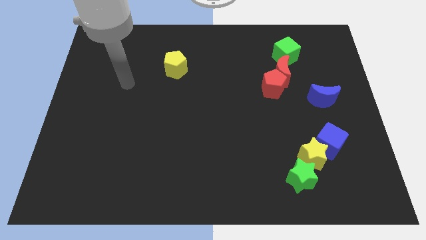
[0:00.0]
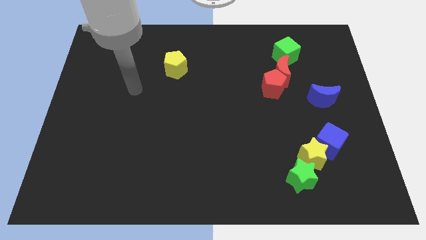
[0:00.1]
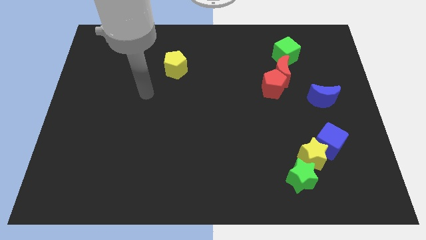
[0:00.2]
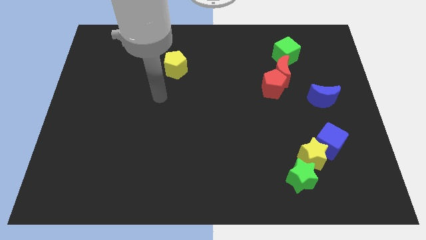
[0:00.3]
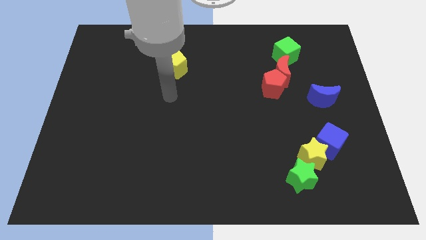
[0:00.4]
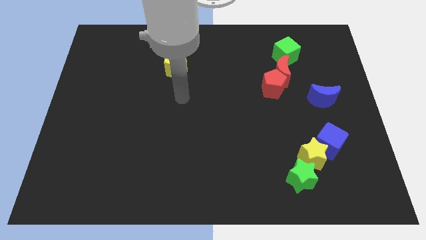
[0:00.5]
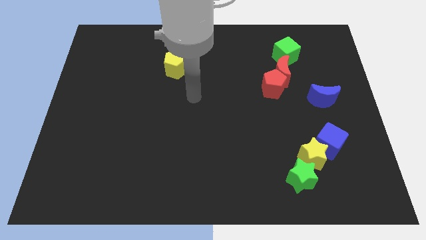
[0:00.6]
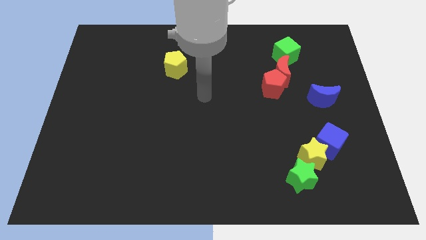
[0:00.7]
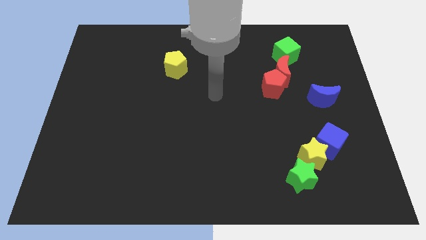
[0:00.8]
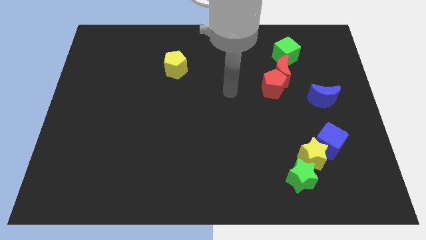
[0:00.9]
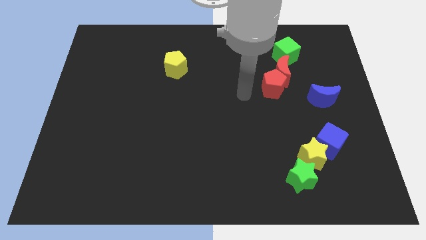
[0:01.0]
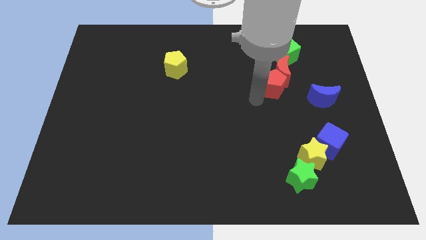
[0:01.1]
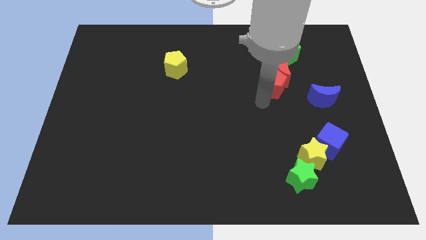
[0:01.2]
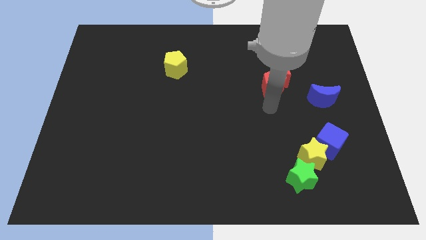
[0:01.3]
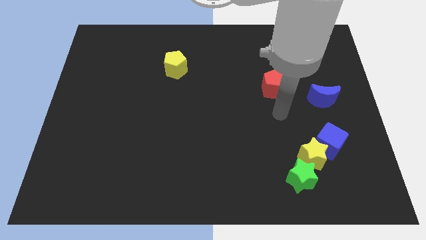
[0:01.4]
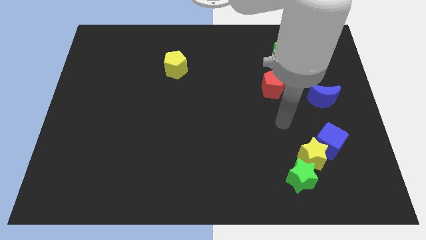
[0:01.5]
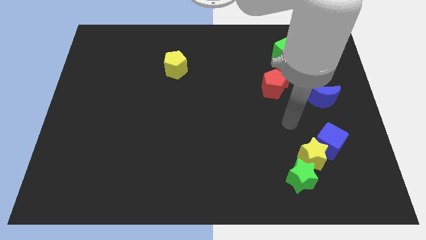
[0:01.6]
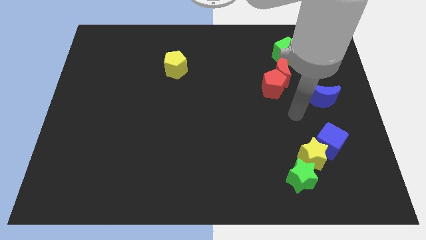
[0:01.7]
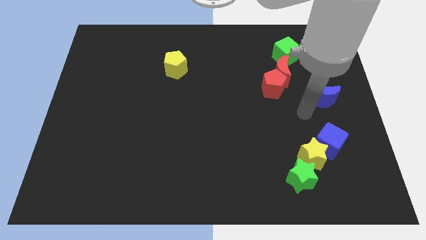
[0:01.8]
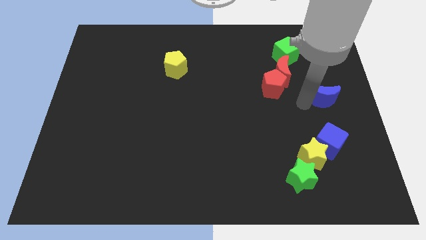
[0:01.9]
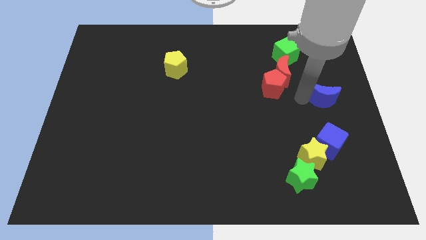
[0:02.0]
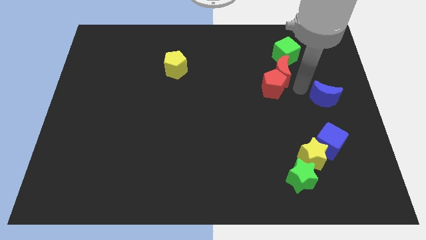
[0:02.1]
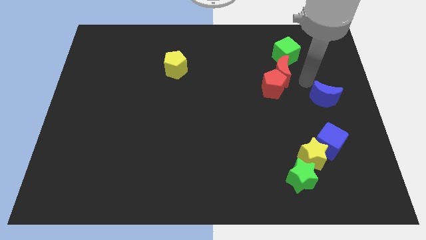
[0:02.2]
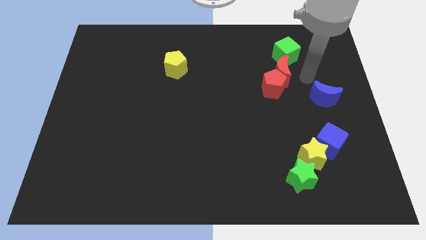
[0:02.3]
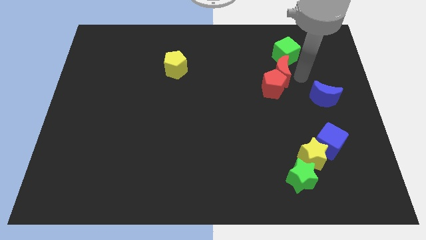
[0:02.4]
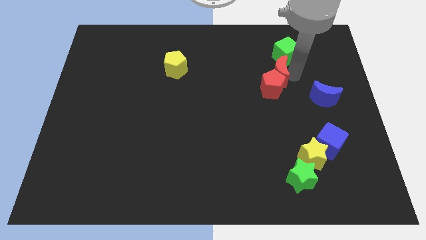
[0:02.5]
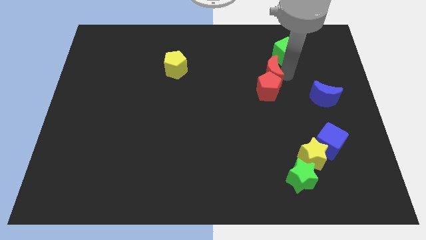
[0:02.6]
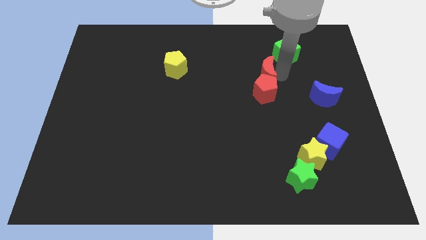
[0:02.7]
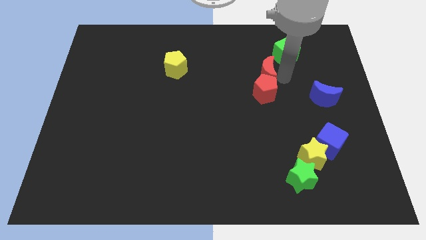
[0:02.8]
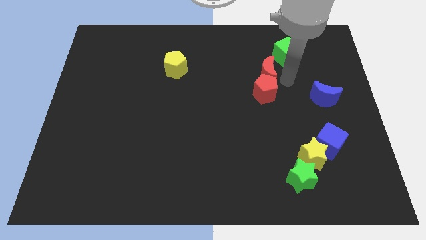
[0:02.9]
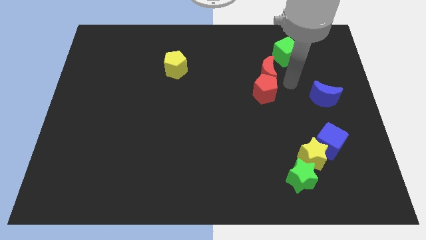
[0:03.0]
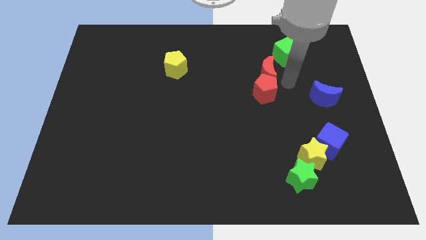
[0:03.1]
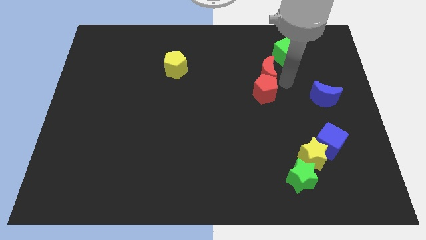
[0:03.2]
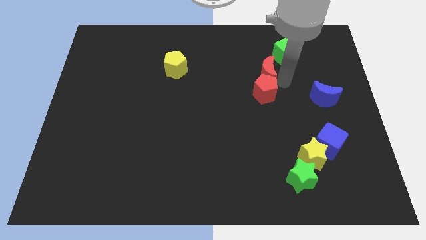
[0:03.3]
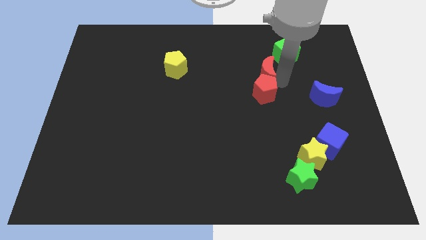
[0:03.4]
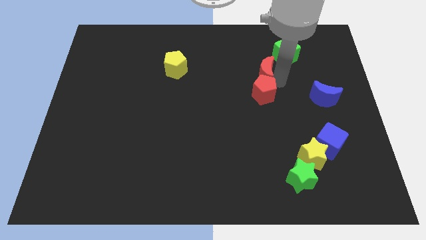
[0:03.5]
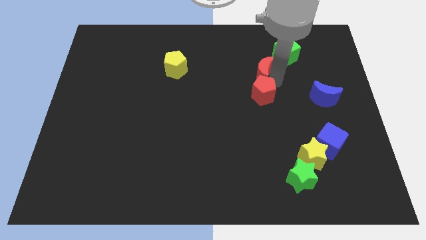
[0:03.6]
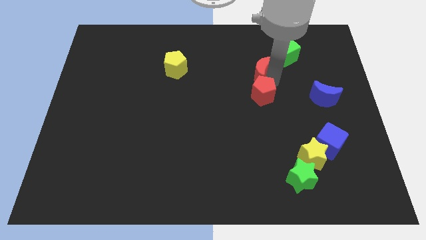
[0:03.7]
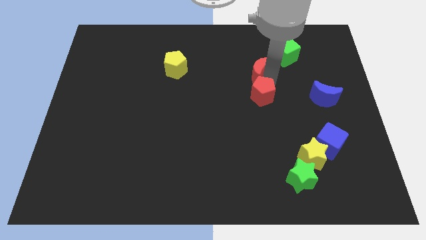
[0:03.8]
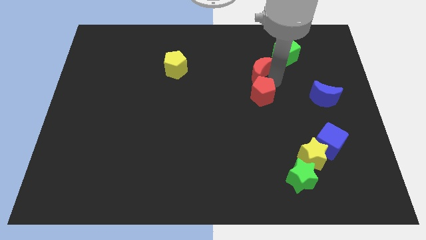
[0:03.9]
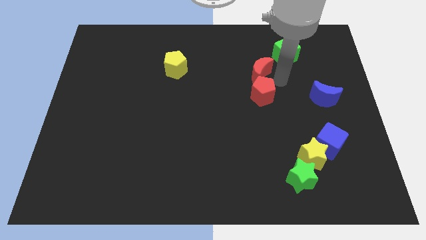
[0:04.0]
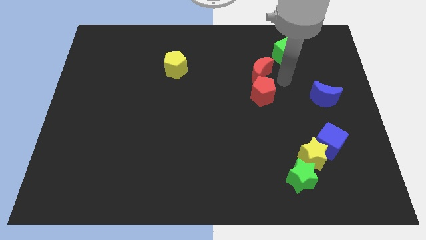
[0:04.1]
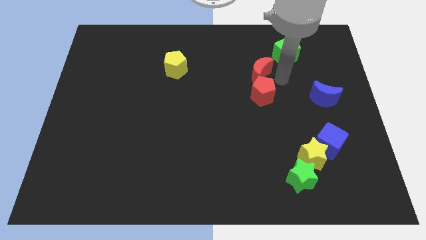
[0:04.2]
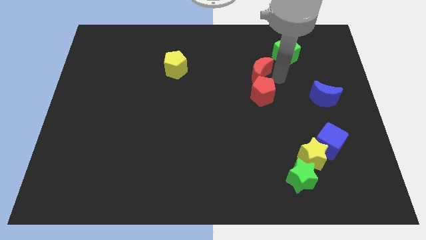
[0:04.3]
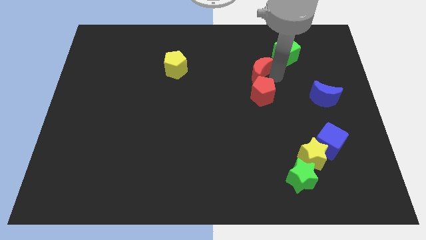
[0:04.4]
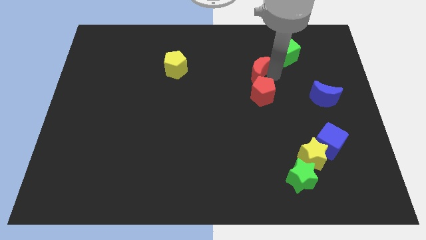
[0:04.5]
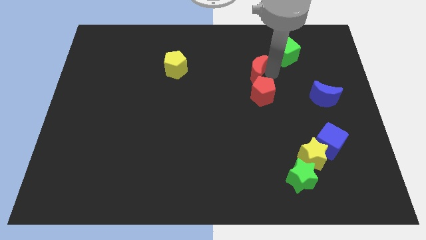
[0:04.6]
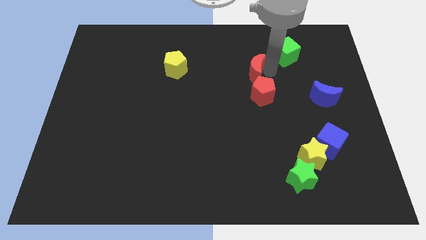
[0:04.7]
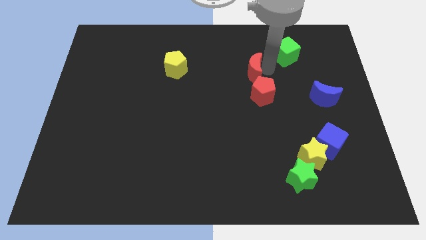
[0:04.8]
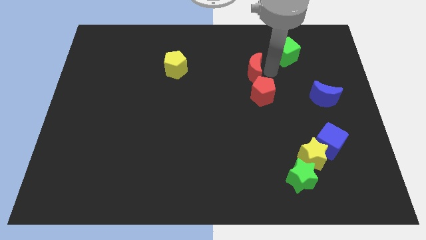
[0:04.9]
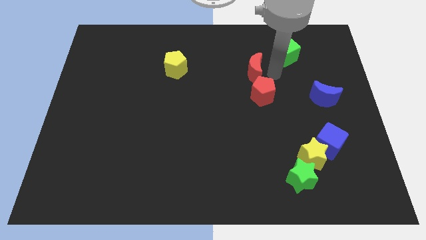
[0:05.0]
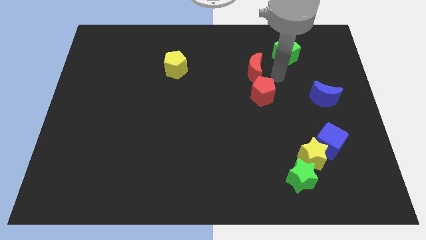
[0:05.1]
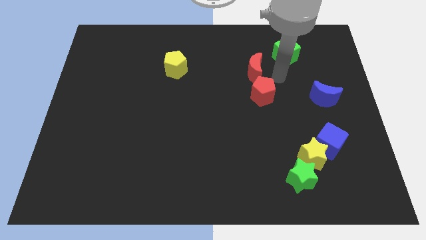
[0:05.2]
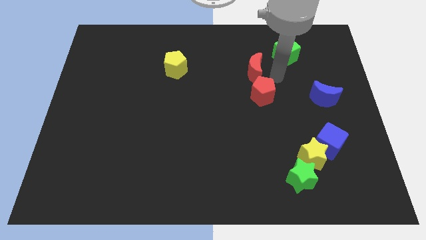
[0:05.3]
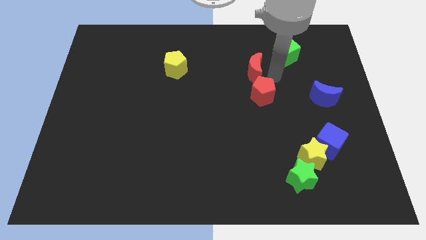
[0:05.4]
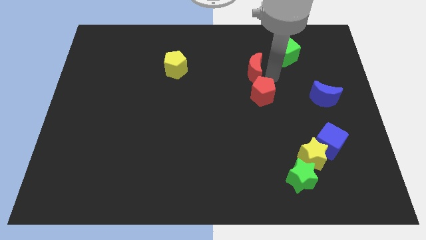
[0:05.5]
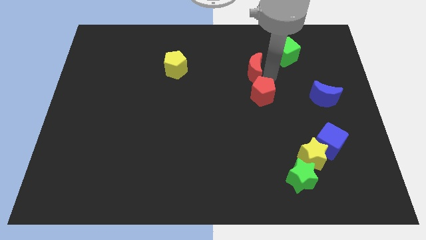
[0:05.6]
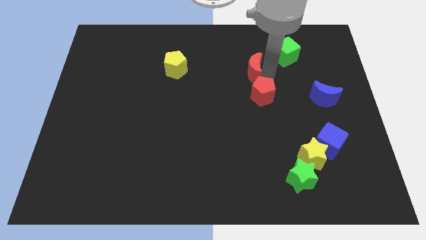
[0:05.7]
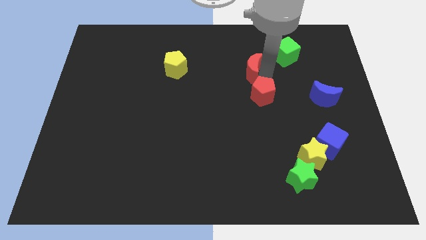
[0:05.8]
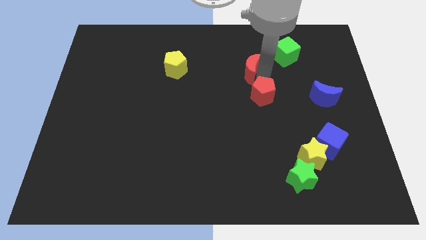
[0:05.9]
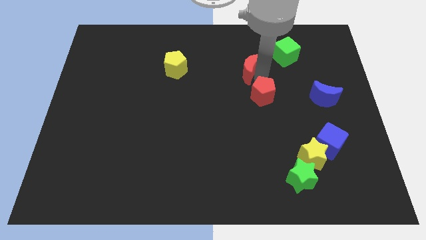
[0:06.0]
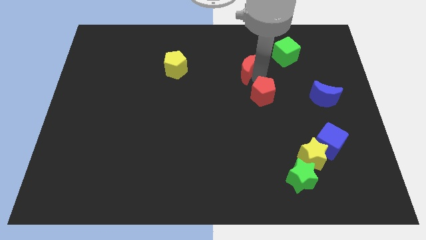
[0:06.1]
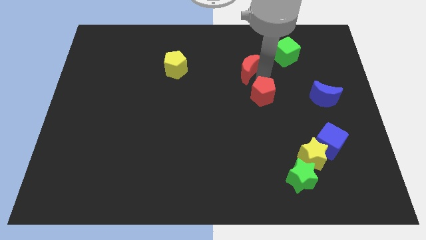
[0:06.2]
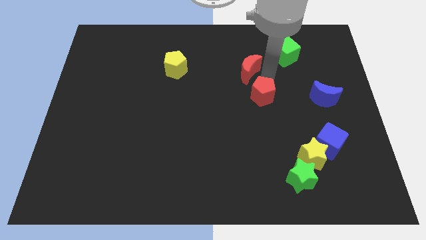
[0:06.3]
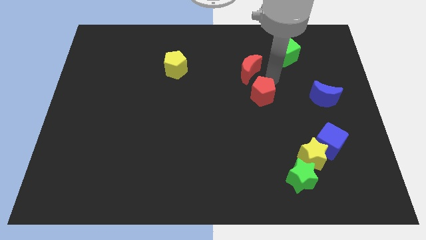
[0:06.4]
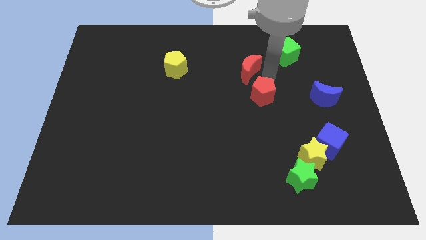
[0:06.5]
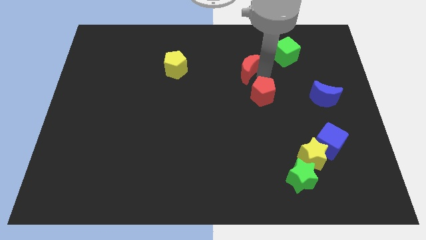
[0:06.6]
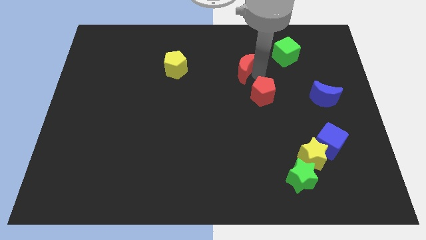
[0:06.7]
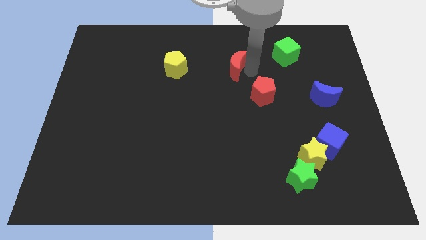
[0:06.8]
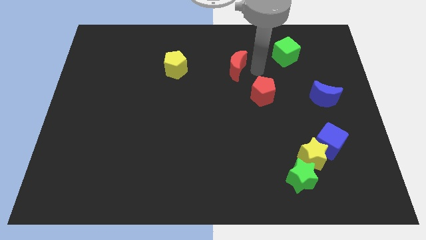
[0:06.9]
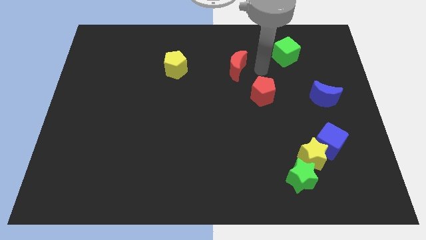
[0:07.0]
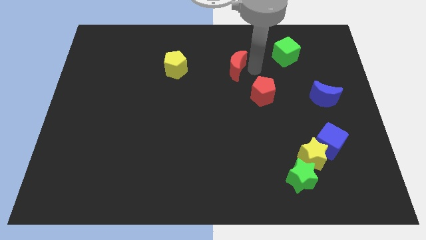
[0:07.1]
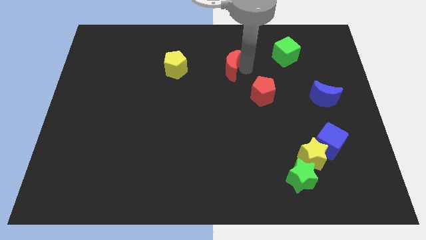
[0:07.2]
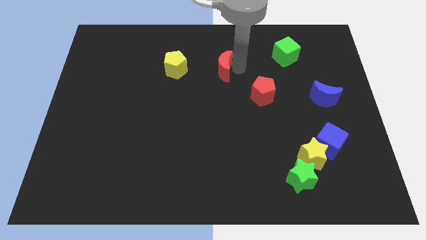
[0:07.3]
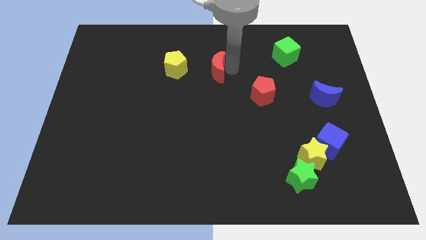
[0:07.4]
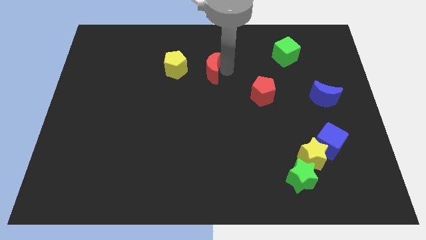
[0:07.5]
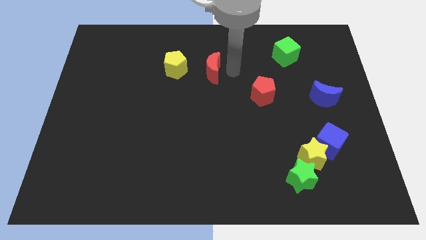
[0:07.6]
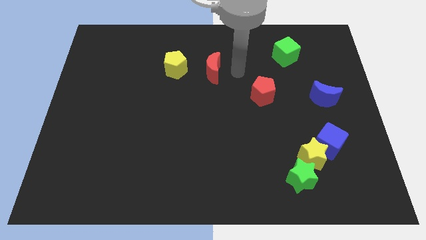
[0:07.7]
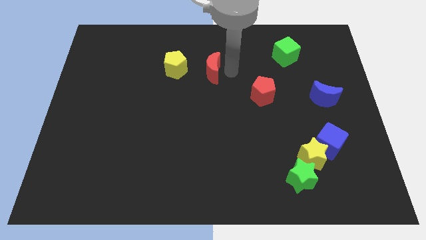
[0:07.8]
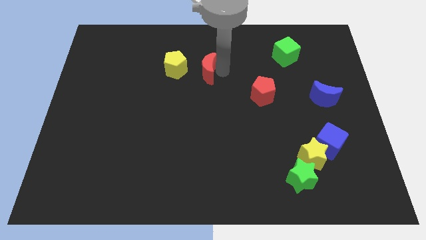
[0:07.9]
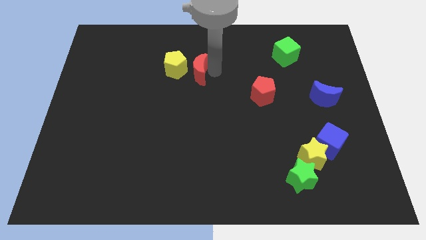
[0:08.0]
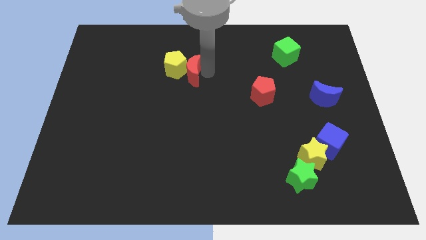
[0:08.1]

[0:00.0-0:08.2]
move the red moon next to the yellow pentagon
